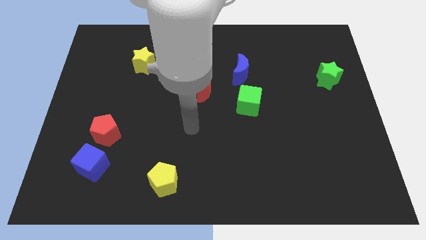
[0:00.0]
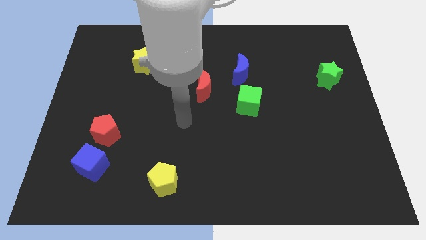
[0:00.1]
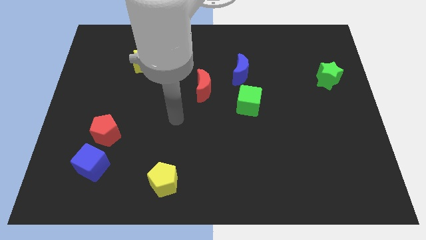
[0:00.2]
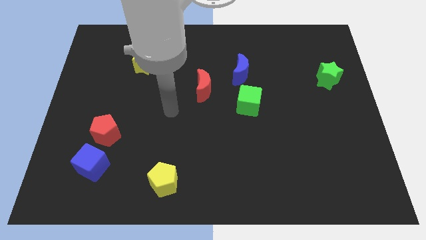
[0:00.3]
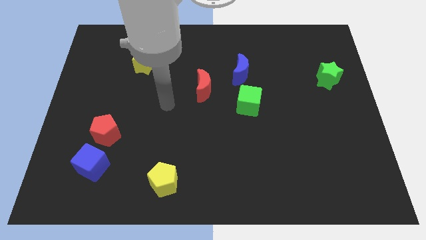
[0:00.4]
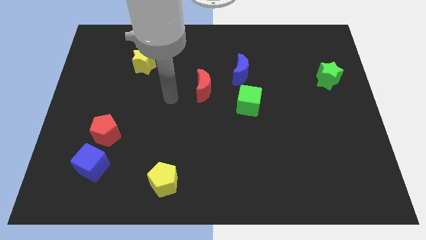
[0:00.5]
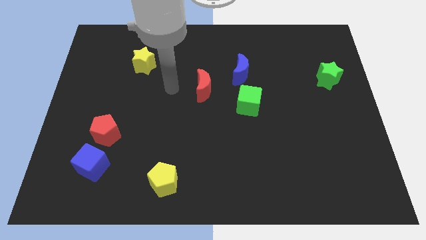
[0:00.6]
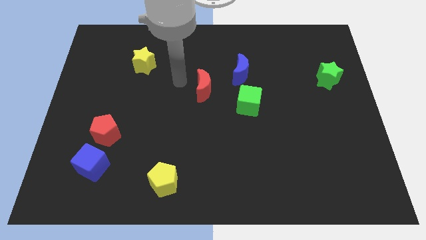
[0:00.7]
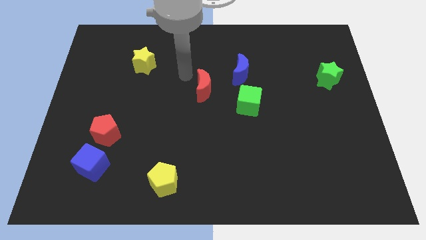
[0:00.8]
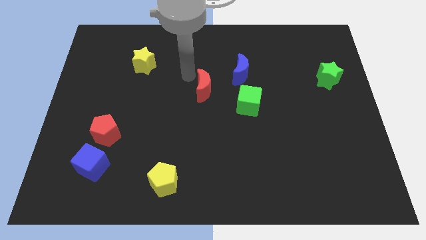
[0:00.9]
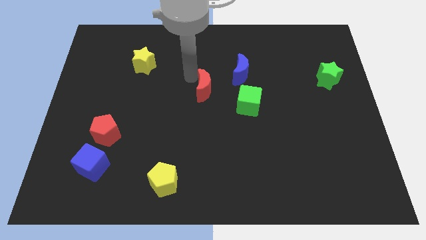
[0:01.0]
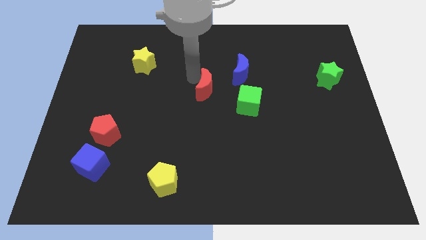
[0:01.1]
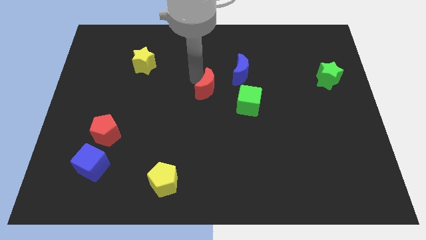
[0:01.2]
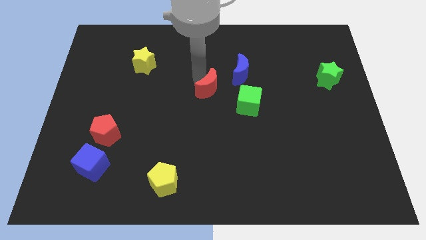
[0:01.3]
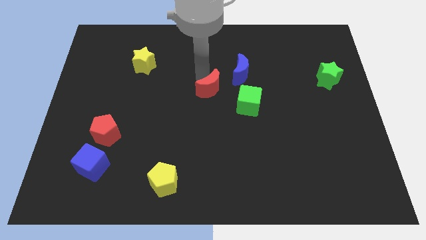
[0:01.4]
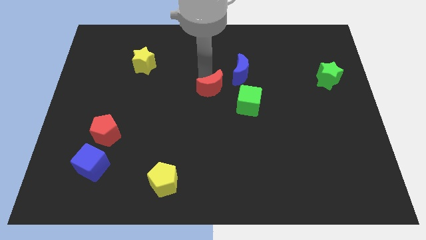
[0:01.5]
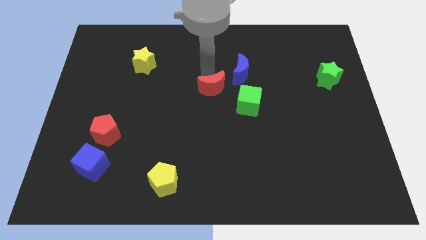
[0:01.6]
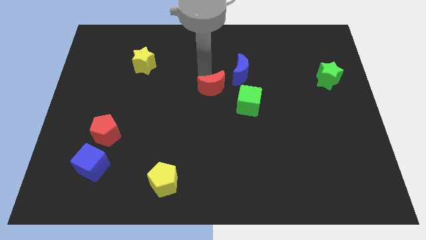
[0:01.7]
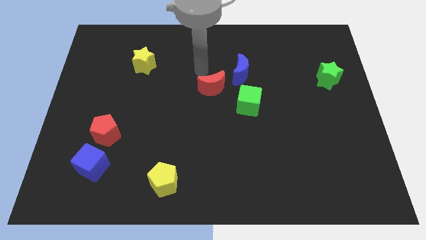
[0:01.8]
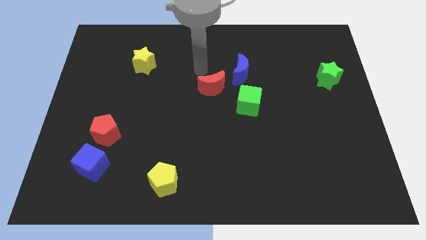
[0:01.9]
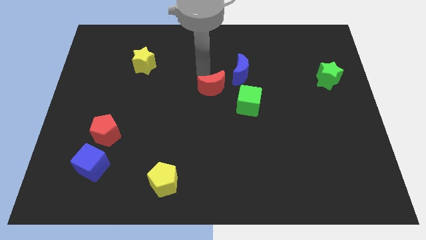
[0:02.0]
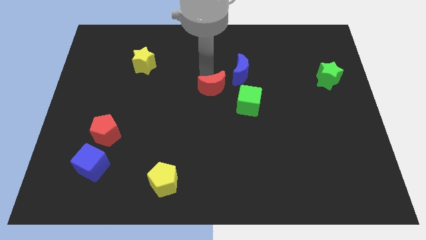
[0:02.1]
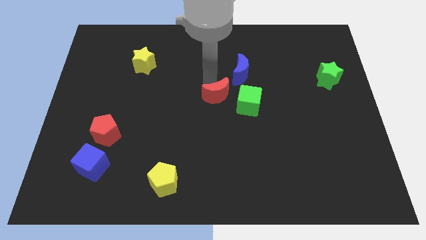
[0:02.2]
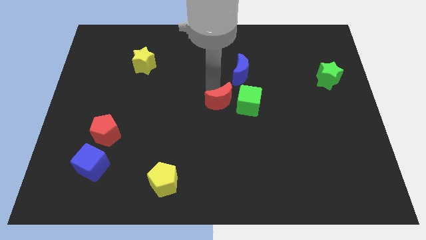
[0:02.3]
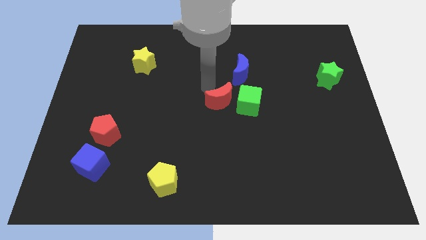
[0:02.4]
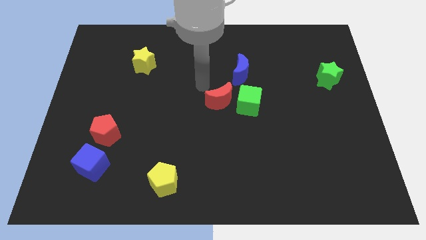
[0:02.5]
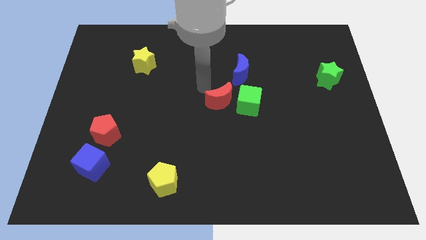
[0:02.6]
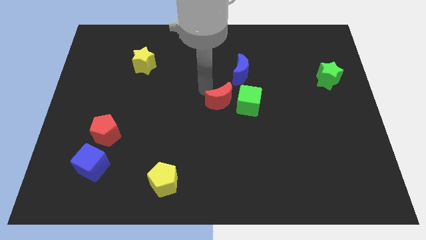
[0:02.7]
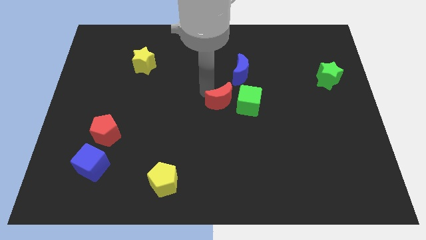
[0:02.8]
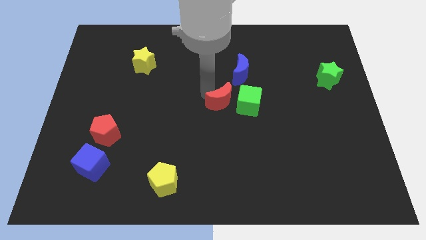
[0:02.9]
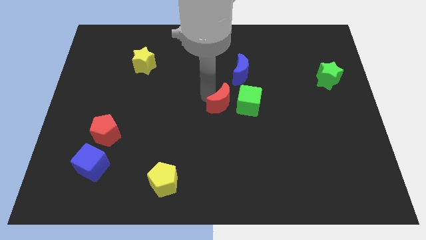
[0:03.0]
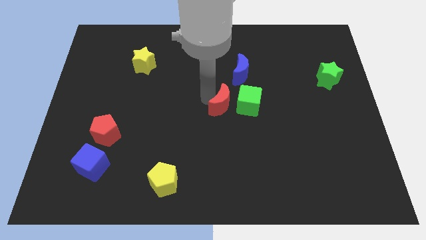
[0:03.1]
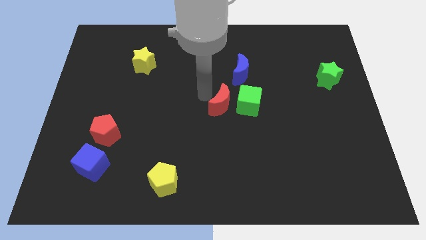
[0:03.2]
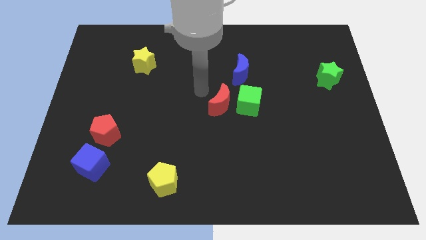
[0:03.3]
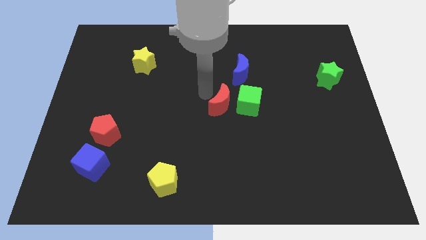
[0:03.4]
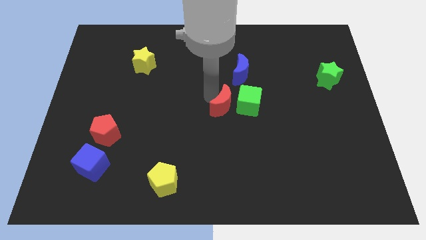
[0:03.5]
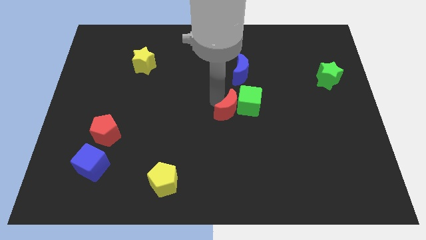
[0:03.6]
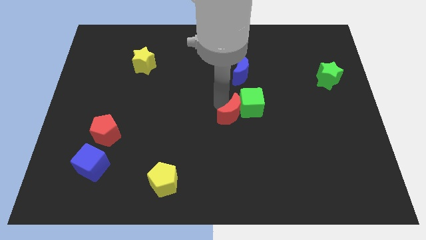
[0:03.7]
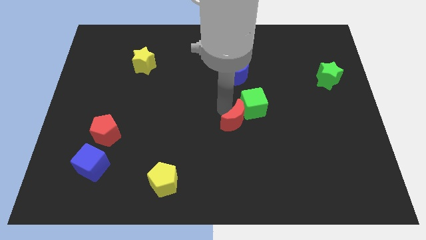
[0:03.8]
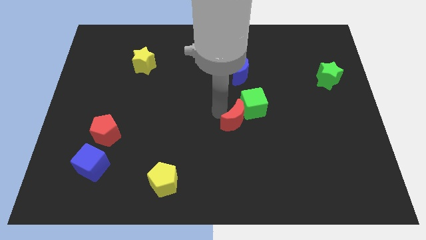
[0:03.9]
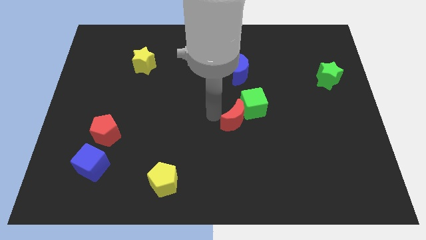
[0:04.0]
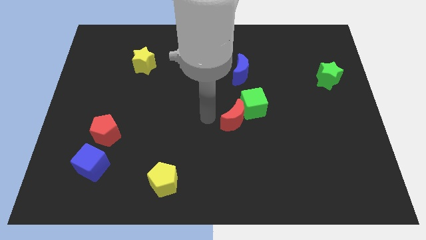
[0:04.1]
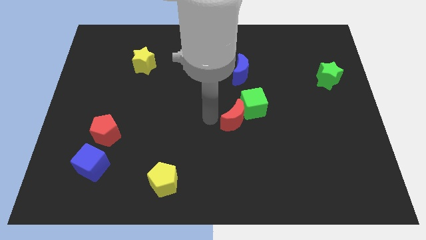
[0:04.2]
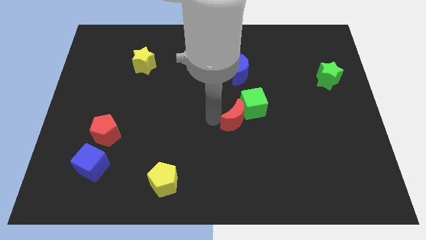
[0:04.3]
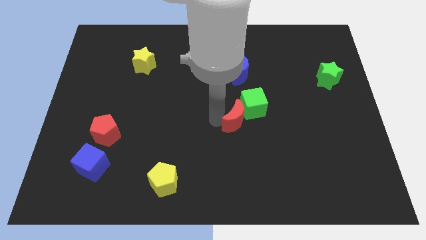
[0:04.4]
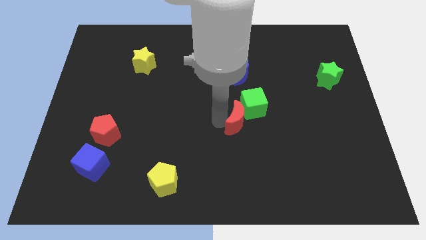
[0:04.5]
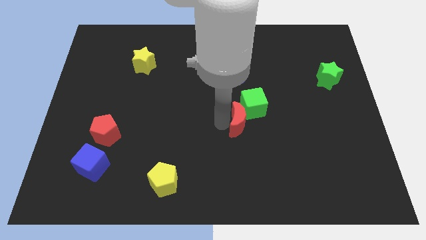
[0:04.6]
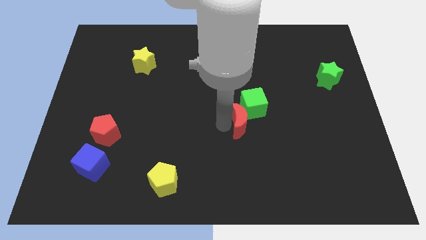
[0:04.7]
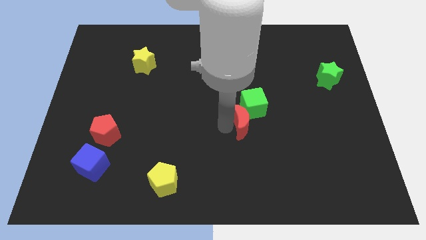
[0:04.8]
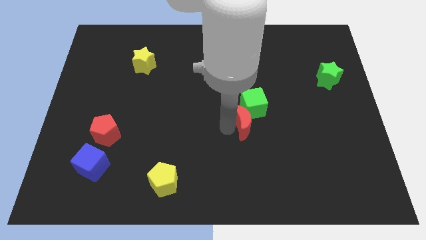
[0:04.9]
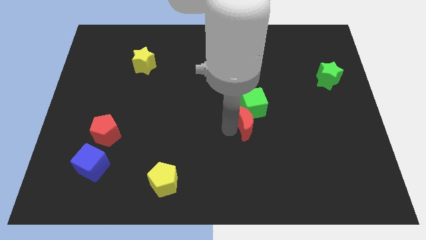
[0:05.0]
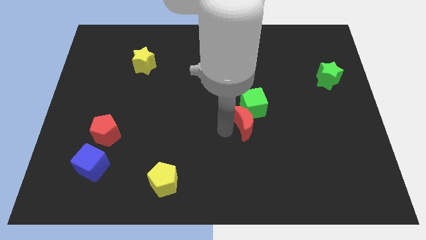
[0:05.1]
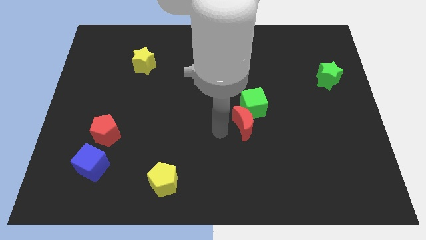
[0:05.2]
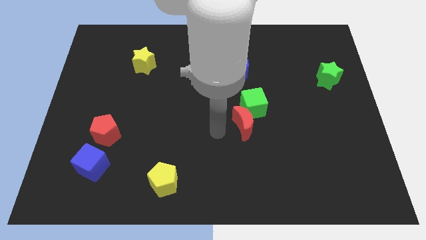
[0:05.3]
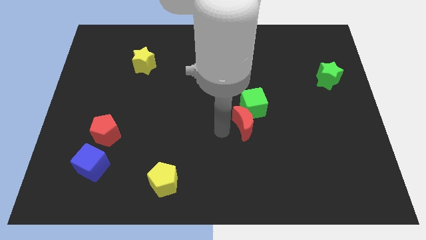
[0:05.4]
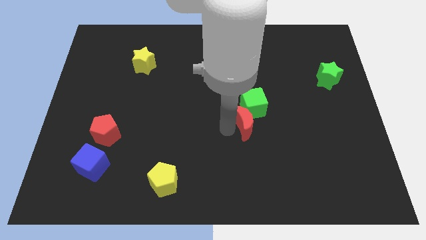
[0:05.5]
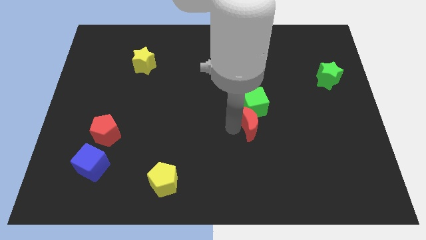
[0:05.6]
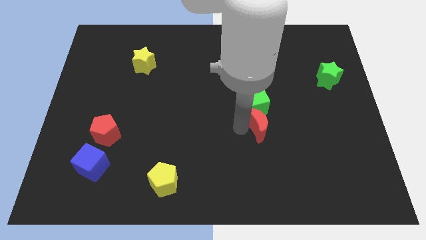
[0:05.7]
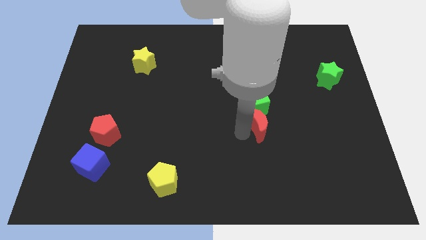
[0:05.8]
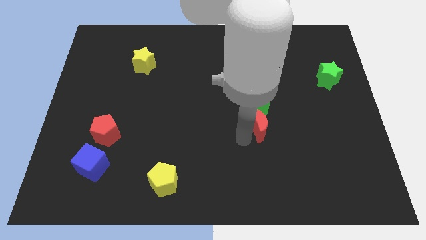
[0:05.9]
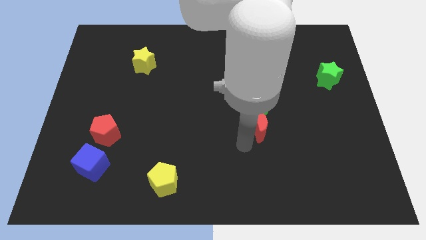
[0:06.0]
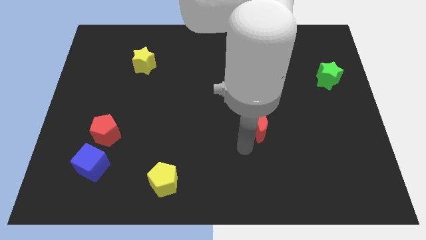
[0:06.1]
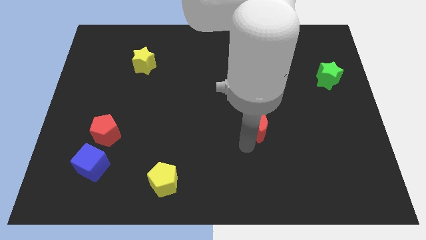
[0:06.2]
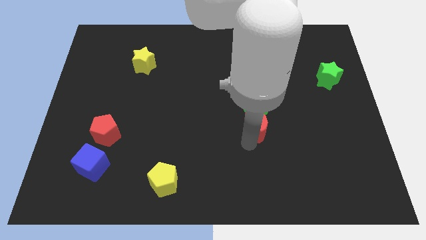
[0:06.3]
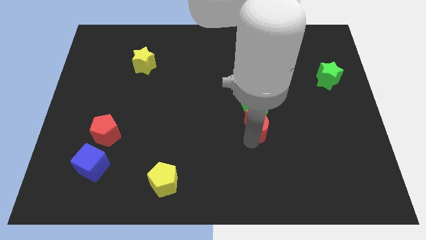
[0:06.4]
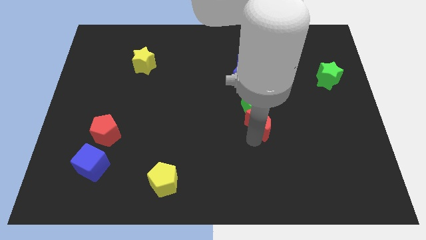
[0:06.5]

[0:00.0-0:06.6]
move the red moon right a little

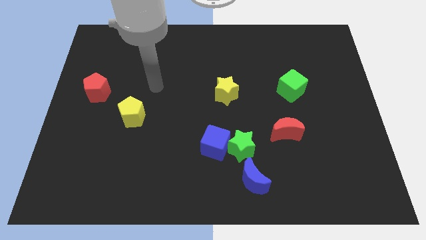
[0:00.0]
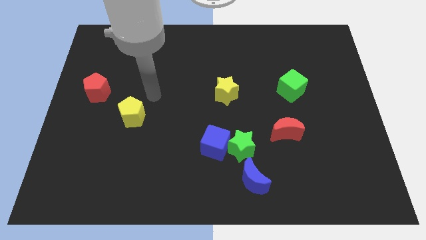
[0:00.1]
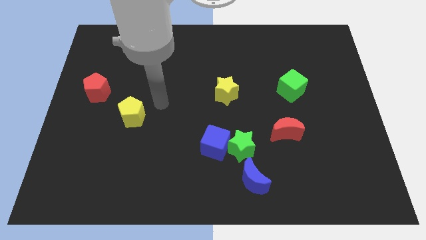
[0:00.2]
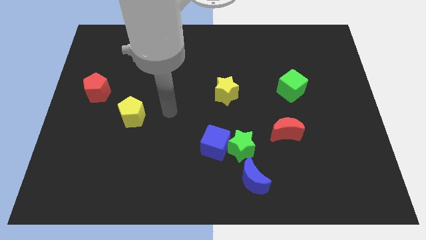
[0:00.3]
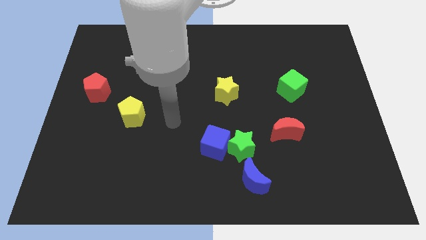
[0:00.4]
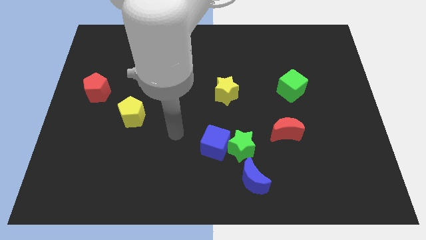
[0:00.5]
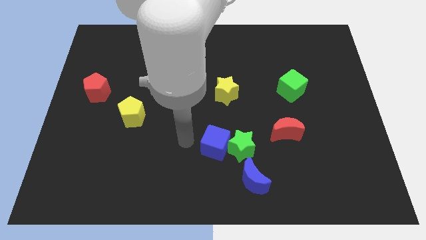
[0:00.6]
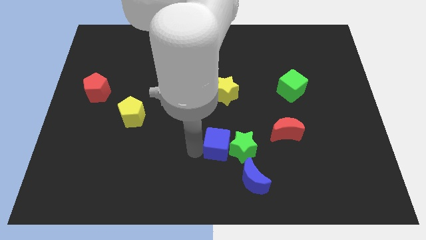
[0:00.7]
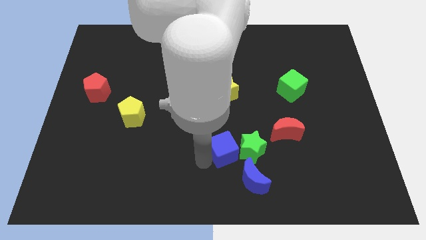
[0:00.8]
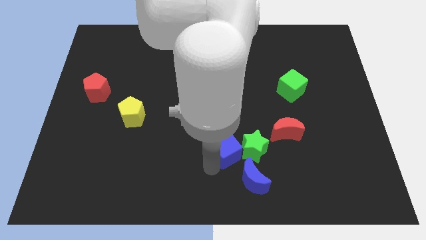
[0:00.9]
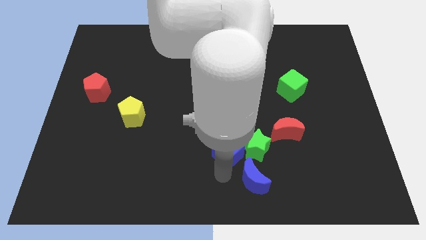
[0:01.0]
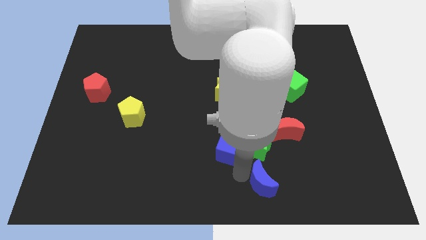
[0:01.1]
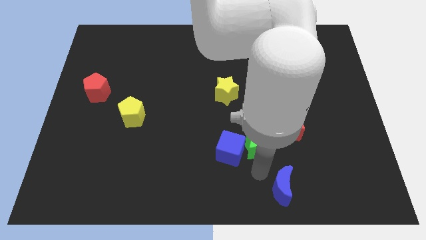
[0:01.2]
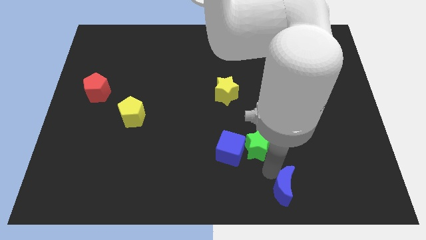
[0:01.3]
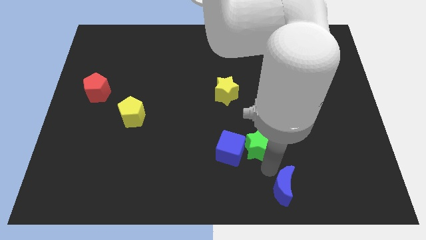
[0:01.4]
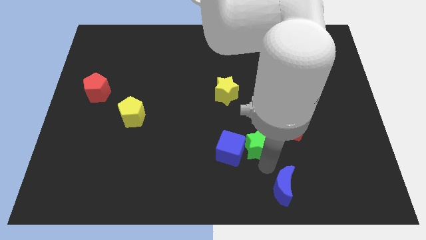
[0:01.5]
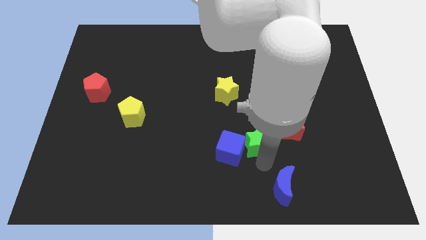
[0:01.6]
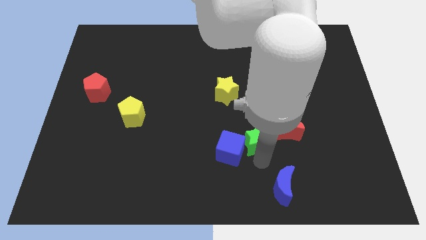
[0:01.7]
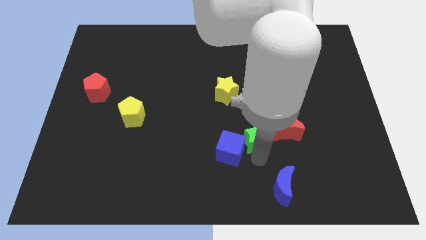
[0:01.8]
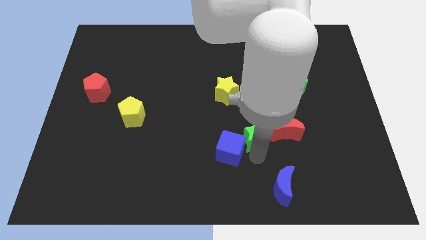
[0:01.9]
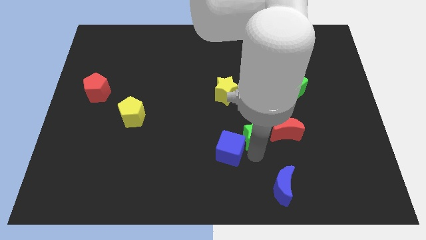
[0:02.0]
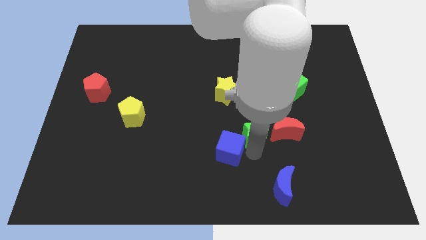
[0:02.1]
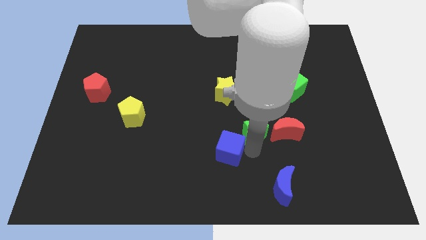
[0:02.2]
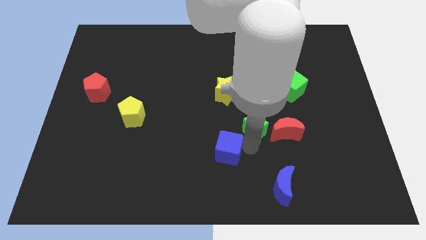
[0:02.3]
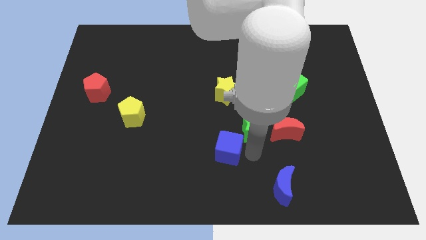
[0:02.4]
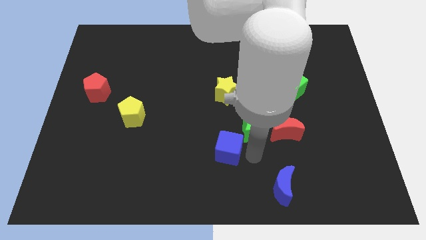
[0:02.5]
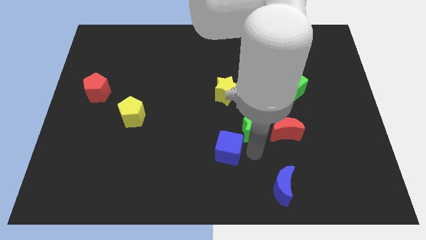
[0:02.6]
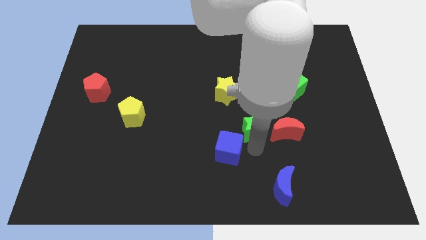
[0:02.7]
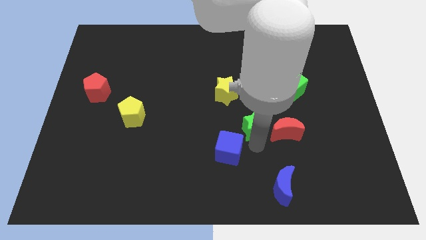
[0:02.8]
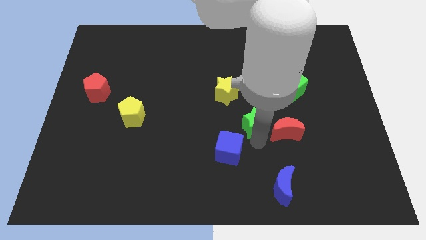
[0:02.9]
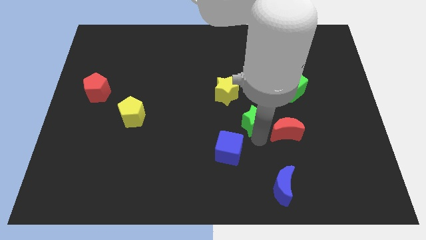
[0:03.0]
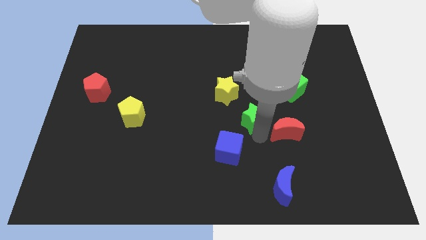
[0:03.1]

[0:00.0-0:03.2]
move the green star a little bit up
